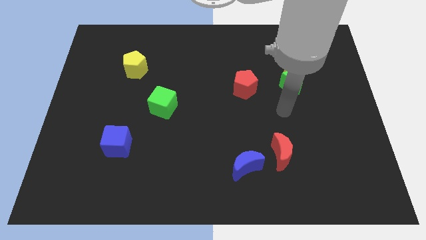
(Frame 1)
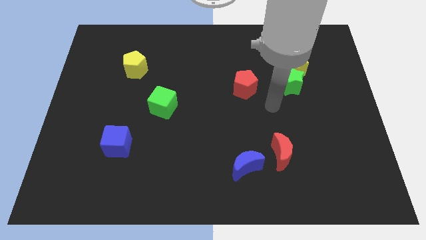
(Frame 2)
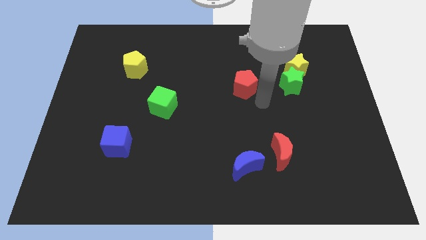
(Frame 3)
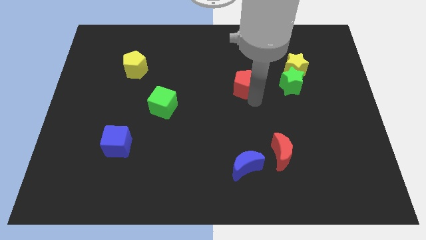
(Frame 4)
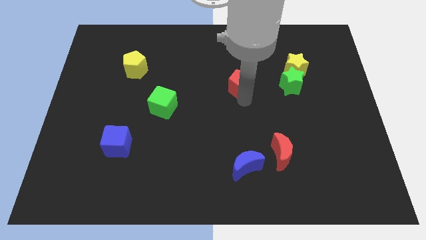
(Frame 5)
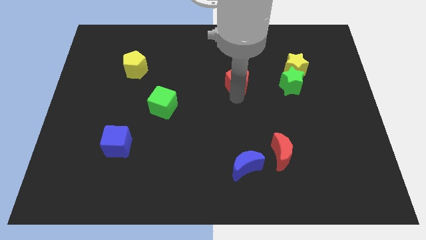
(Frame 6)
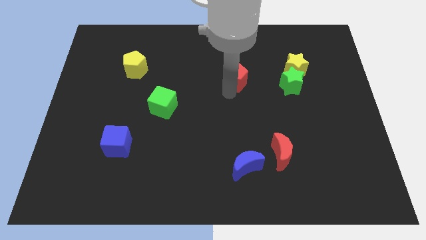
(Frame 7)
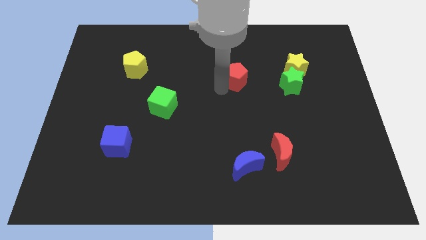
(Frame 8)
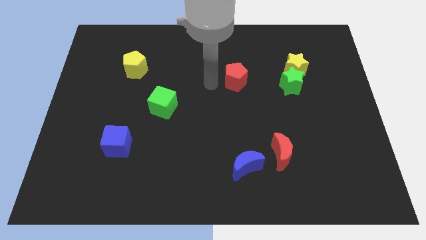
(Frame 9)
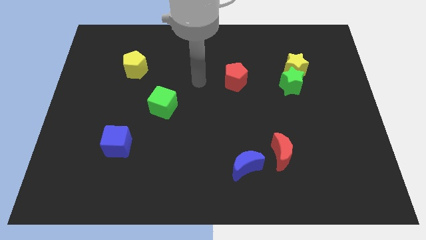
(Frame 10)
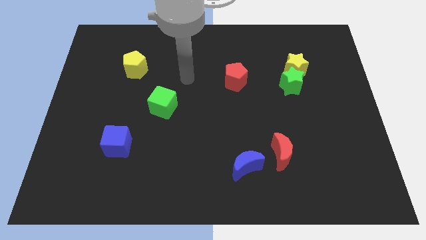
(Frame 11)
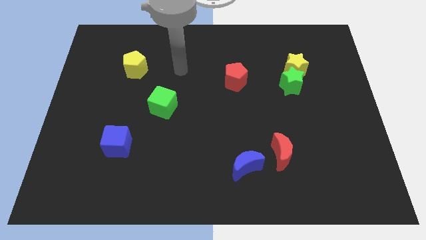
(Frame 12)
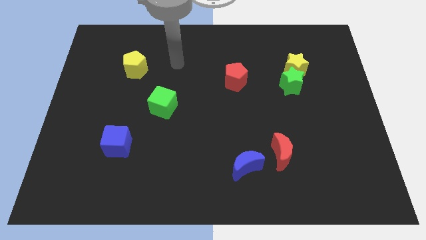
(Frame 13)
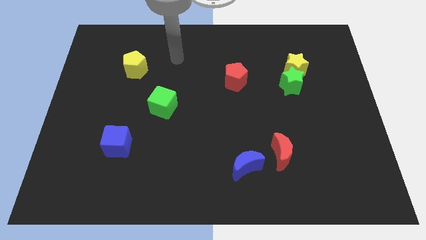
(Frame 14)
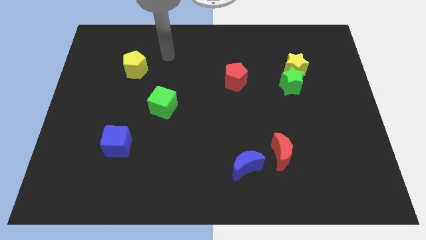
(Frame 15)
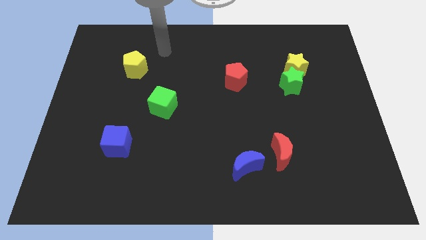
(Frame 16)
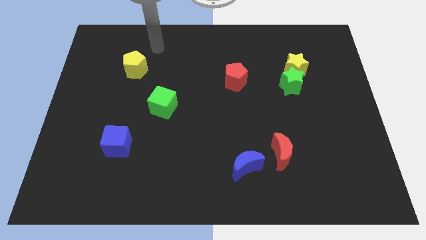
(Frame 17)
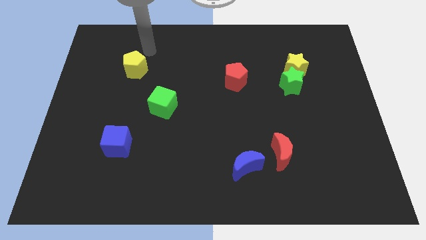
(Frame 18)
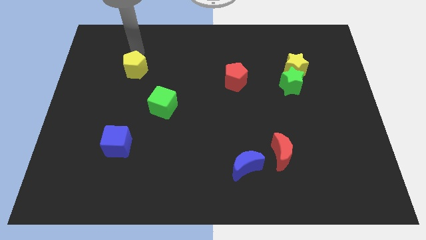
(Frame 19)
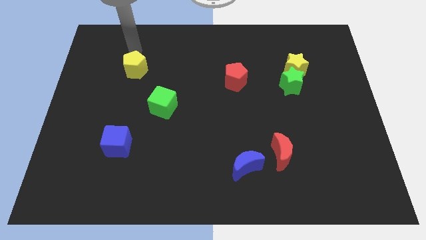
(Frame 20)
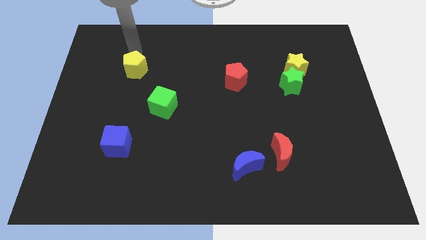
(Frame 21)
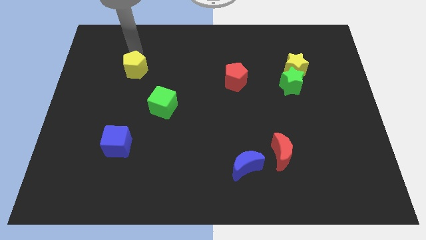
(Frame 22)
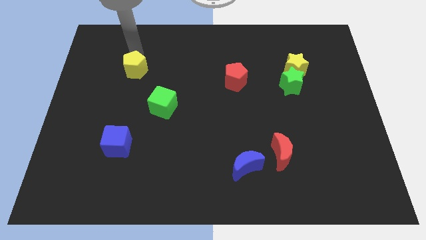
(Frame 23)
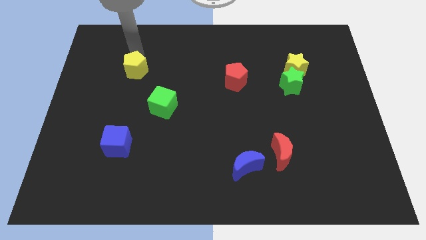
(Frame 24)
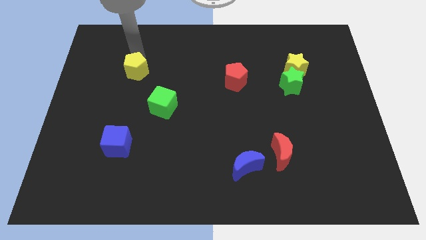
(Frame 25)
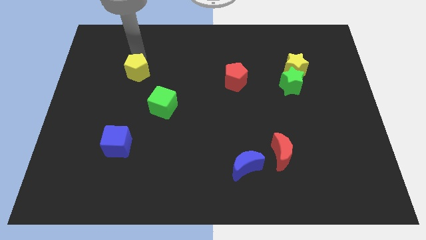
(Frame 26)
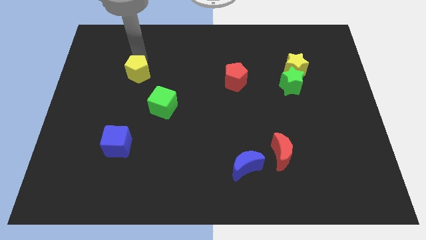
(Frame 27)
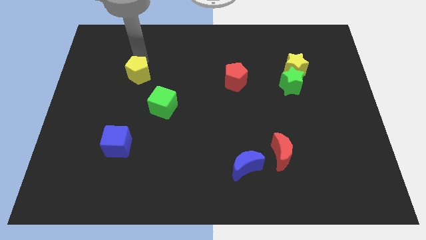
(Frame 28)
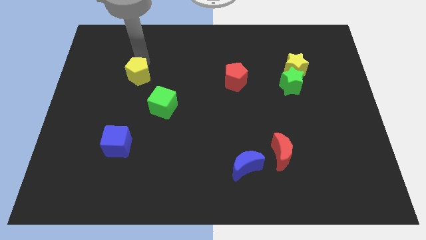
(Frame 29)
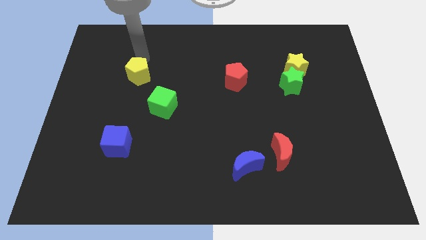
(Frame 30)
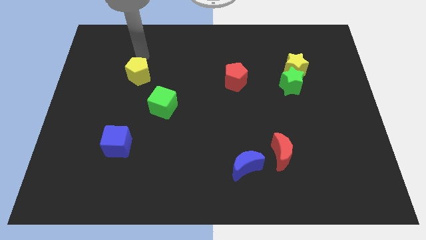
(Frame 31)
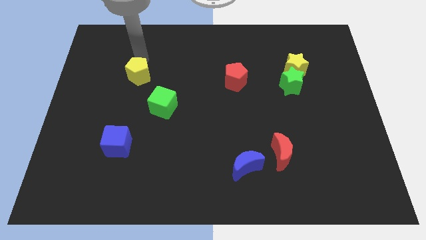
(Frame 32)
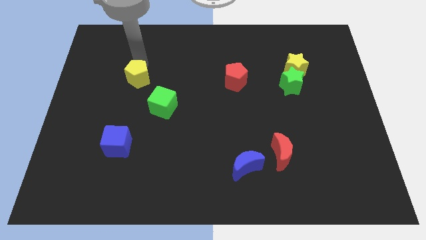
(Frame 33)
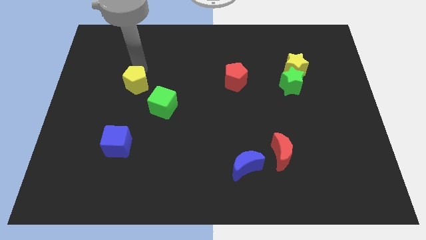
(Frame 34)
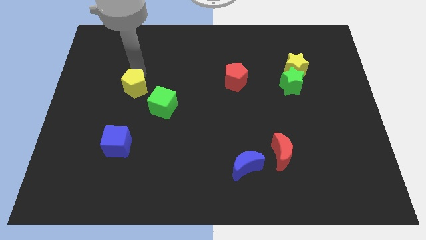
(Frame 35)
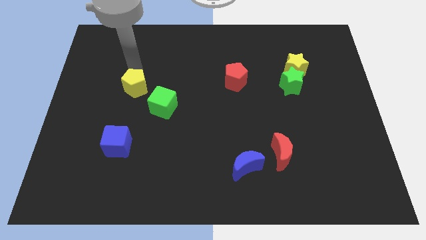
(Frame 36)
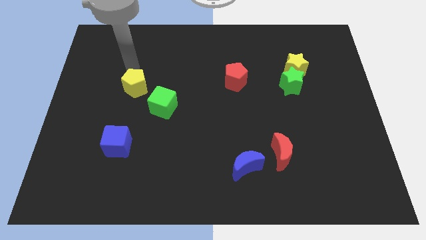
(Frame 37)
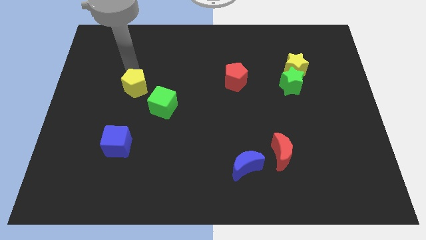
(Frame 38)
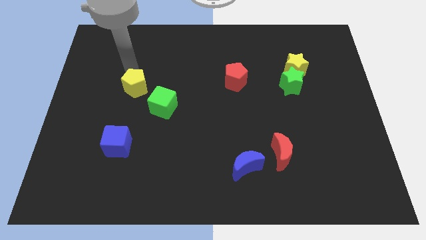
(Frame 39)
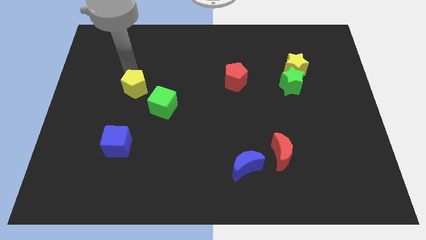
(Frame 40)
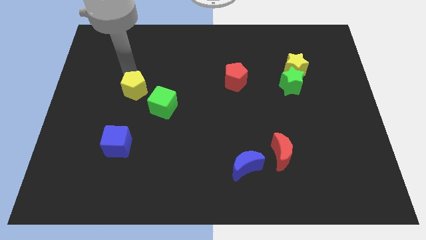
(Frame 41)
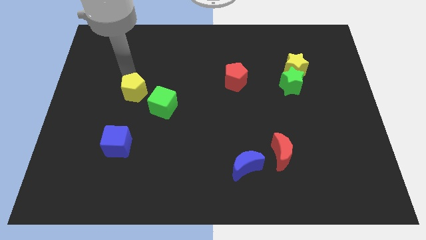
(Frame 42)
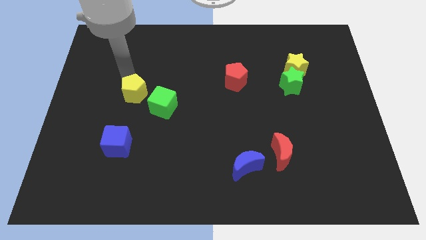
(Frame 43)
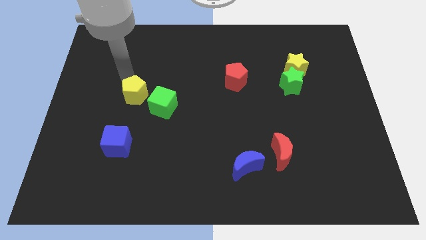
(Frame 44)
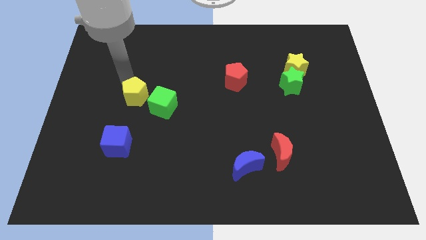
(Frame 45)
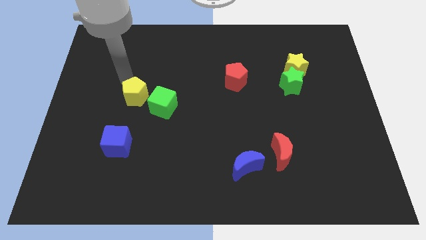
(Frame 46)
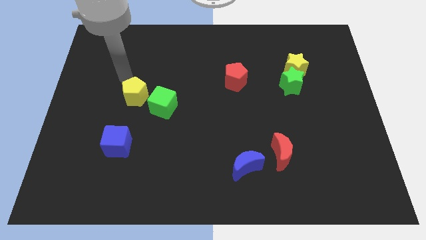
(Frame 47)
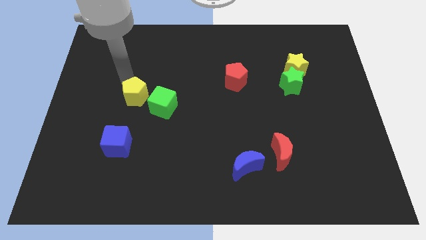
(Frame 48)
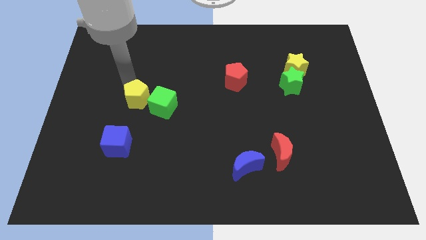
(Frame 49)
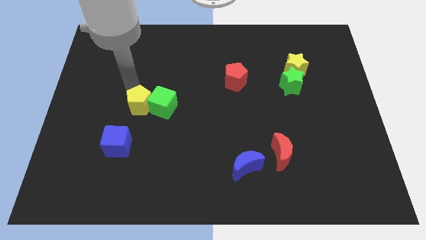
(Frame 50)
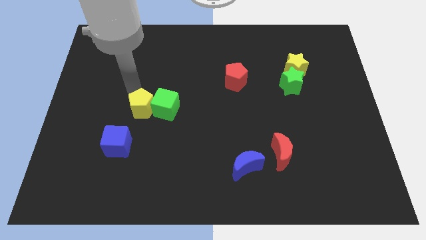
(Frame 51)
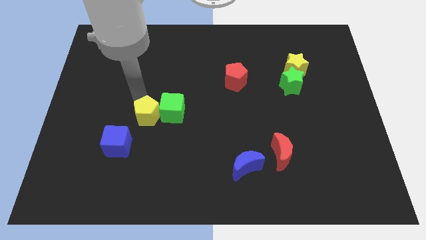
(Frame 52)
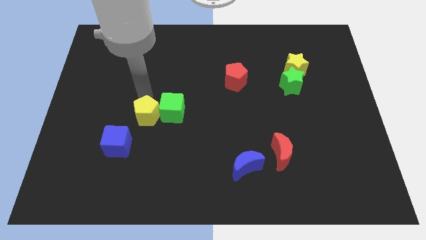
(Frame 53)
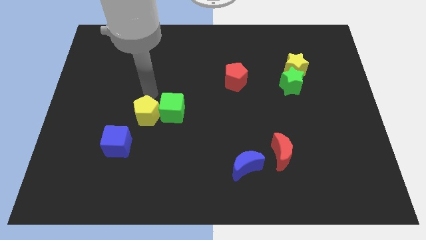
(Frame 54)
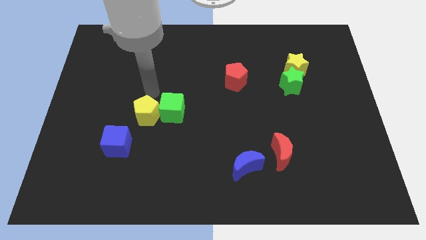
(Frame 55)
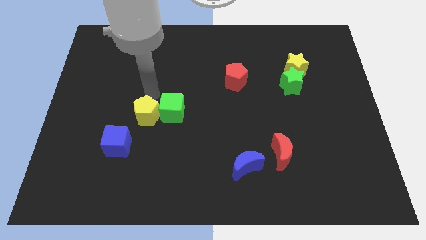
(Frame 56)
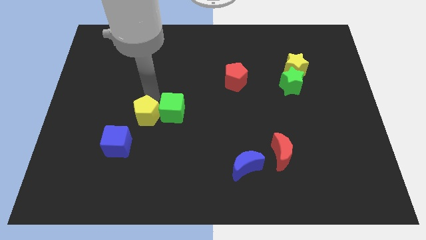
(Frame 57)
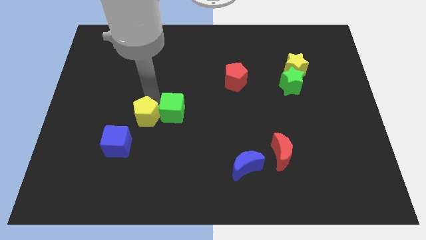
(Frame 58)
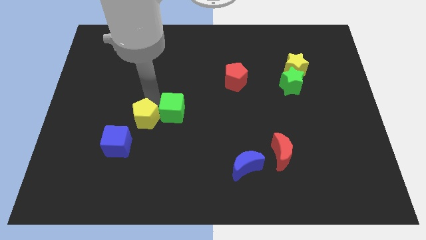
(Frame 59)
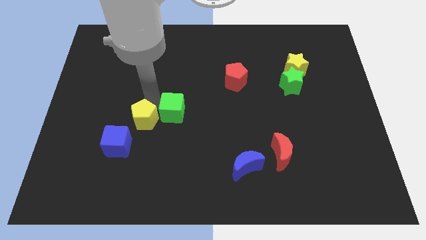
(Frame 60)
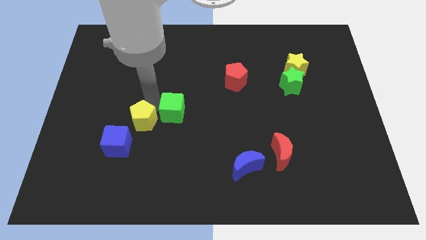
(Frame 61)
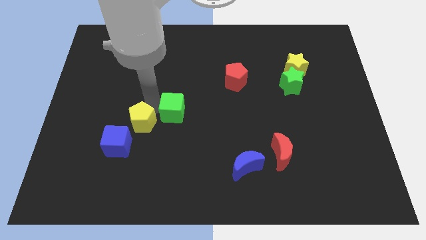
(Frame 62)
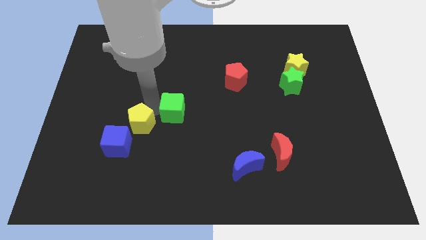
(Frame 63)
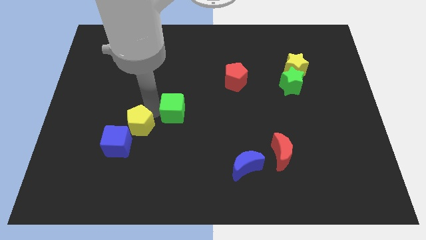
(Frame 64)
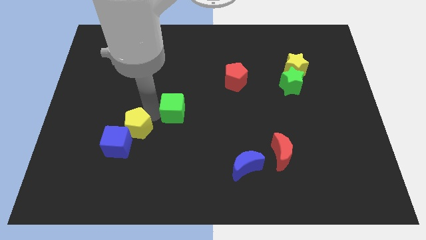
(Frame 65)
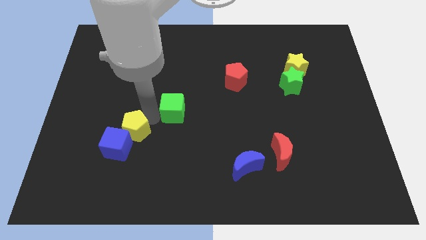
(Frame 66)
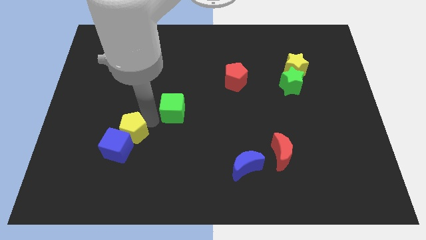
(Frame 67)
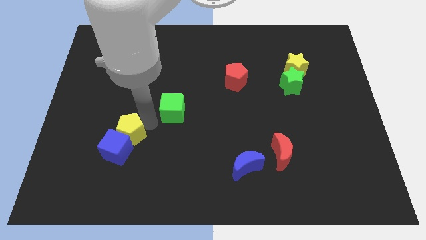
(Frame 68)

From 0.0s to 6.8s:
move the yellow pentagon downwards

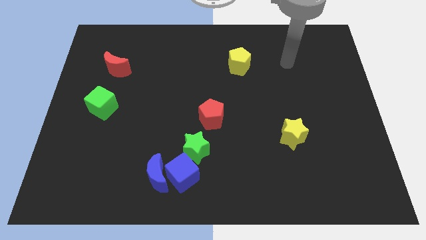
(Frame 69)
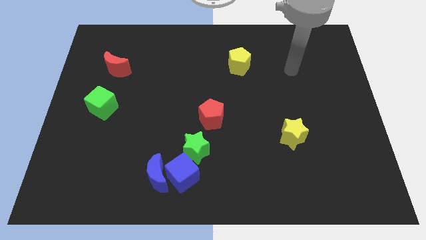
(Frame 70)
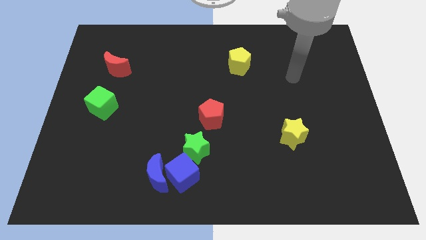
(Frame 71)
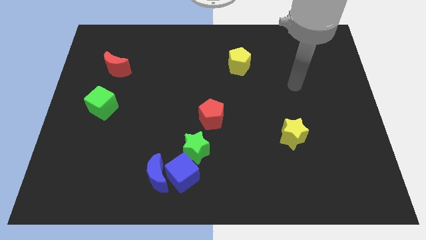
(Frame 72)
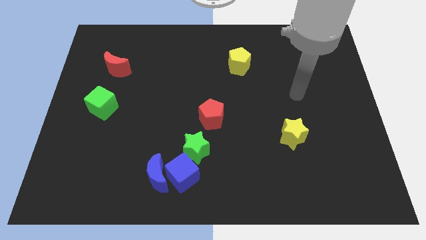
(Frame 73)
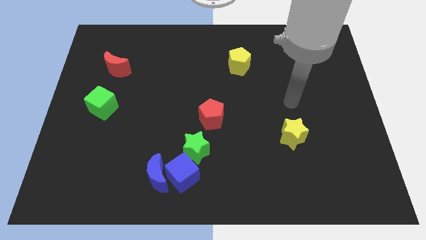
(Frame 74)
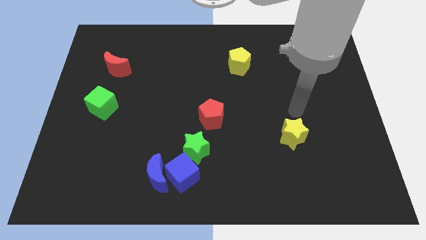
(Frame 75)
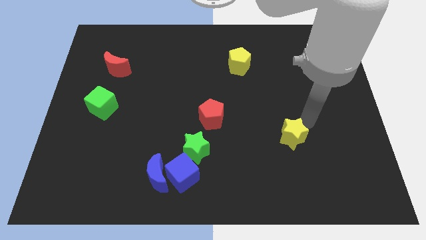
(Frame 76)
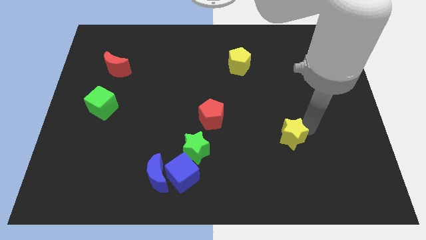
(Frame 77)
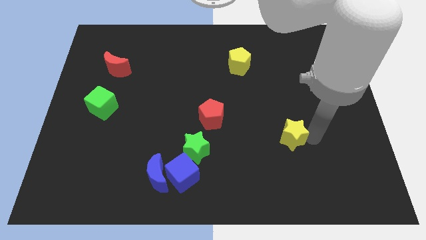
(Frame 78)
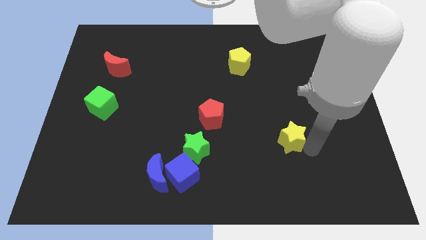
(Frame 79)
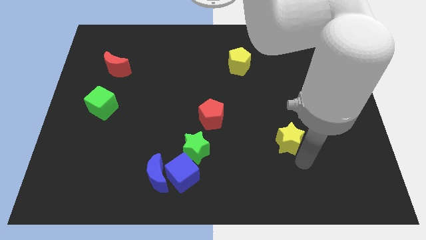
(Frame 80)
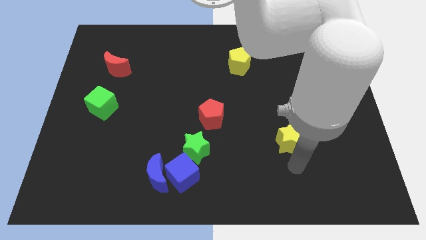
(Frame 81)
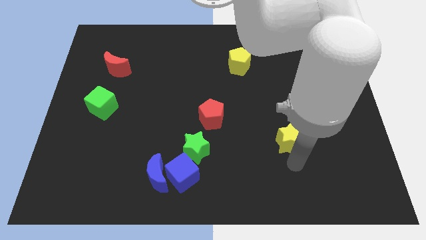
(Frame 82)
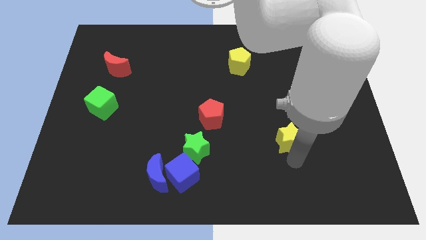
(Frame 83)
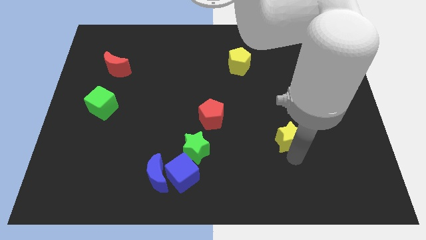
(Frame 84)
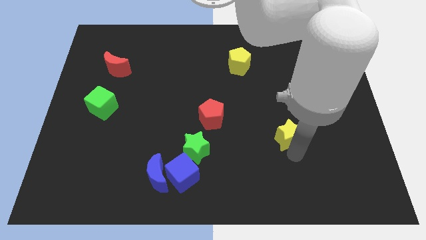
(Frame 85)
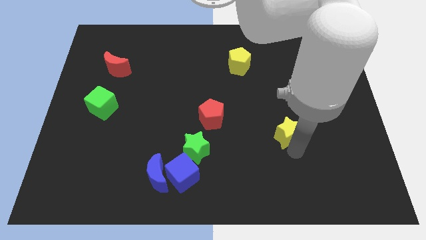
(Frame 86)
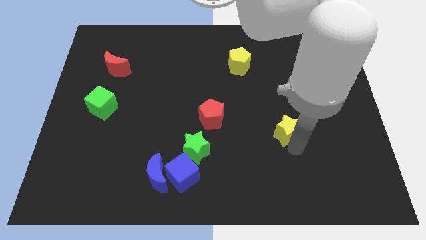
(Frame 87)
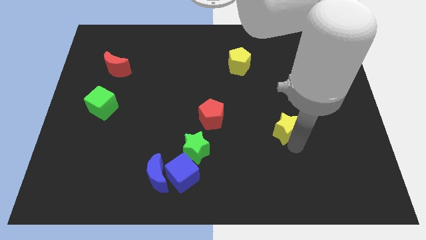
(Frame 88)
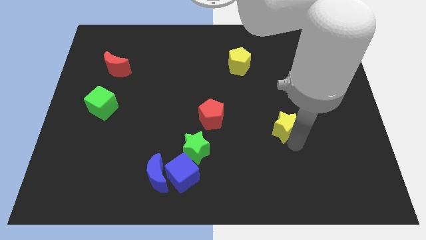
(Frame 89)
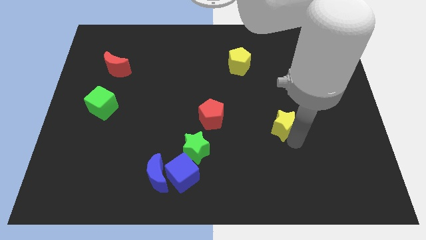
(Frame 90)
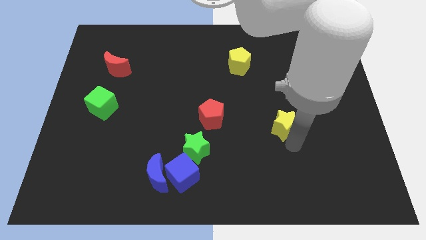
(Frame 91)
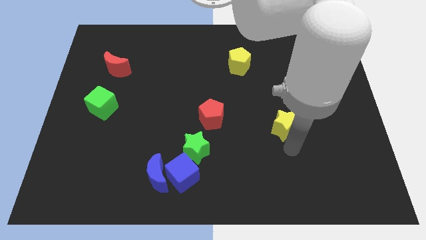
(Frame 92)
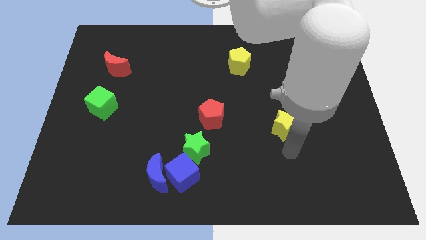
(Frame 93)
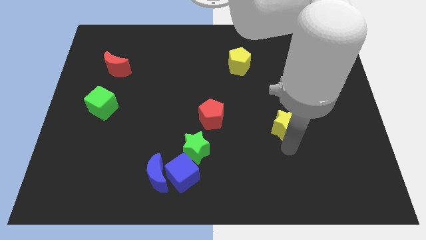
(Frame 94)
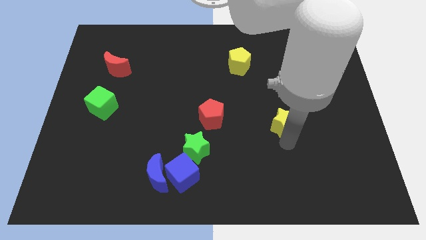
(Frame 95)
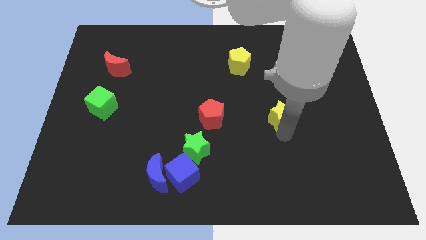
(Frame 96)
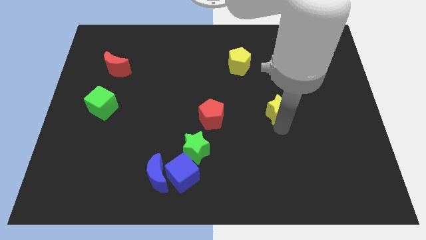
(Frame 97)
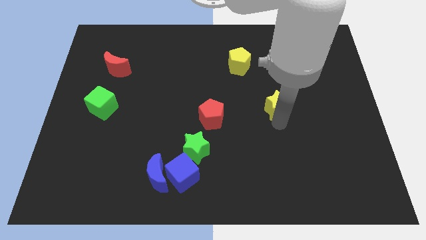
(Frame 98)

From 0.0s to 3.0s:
push the yellow star upwards a little bit
